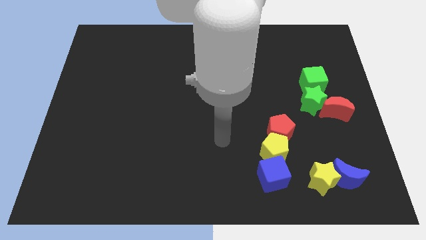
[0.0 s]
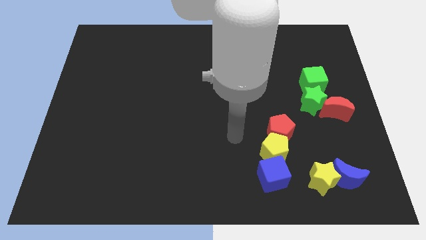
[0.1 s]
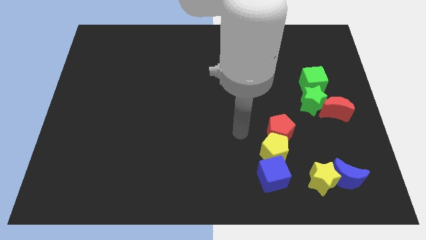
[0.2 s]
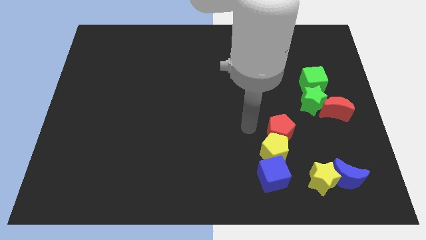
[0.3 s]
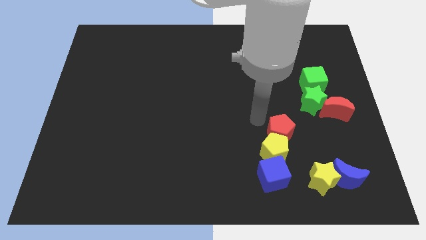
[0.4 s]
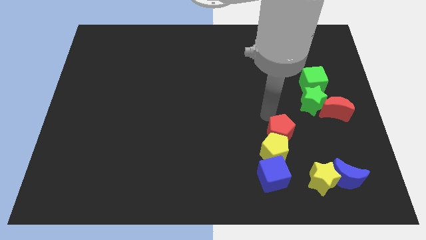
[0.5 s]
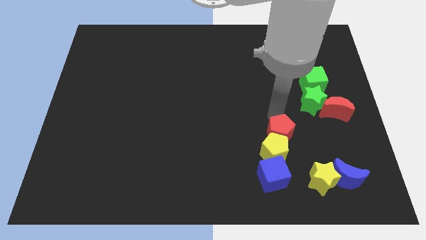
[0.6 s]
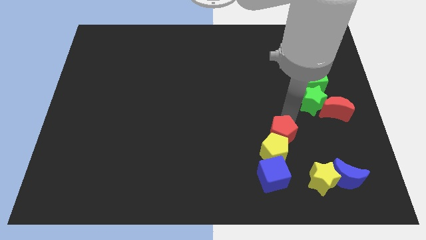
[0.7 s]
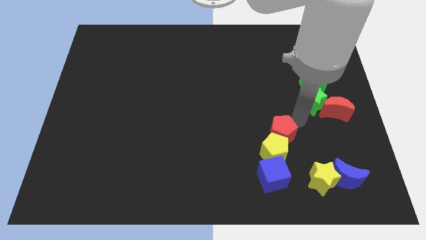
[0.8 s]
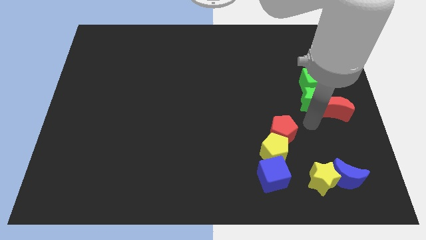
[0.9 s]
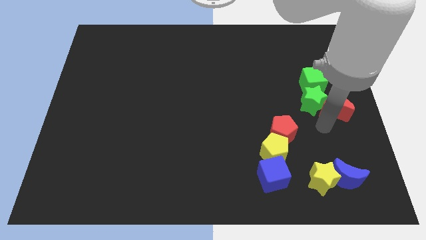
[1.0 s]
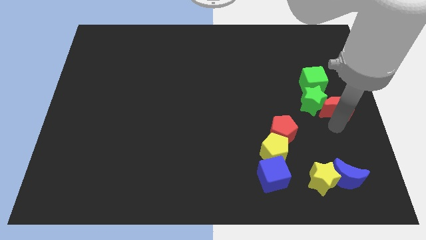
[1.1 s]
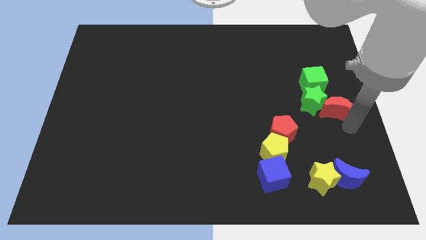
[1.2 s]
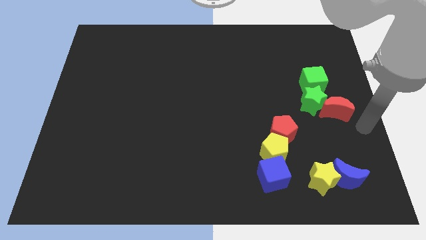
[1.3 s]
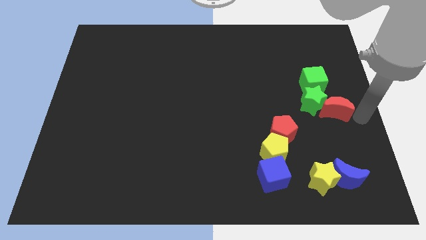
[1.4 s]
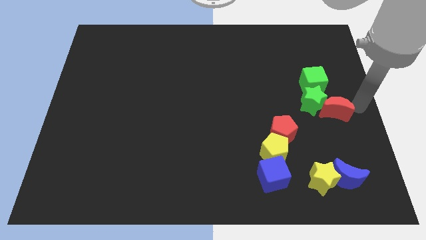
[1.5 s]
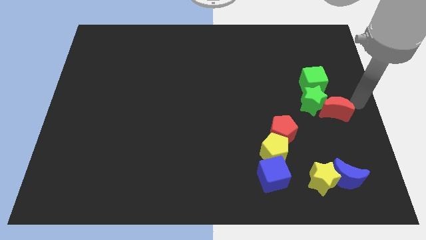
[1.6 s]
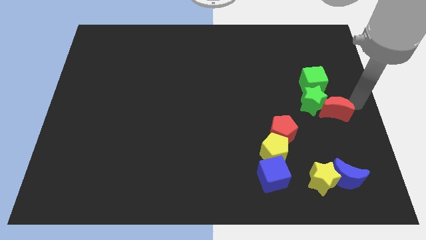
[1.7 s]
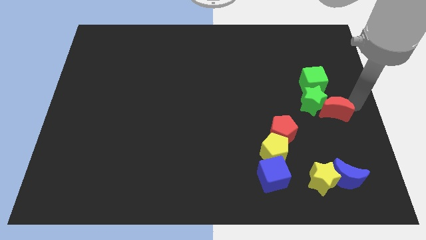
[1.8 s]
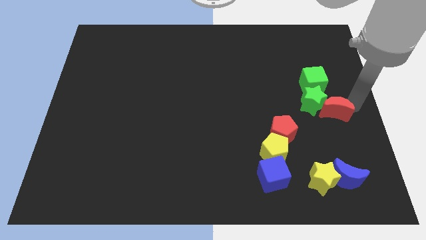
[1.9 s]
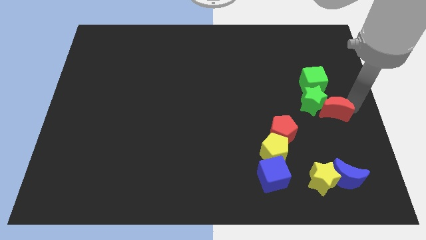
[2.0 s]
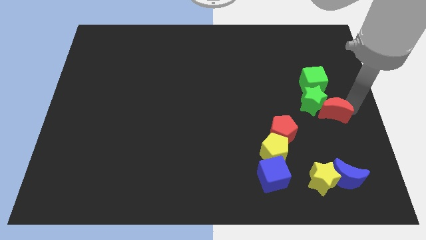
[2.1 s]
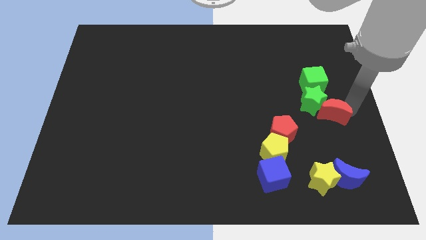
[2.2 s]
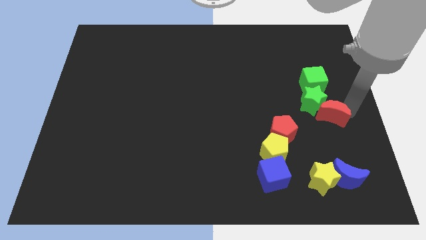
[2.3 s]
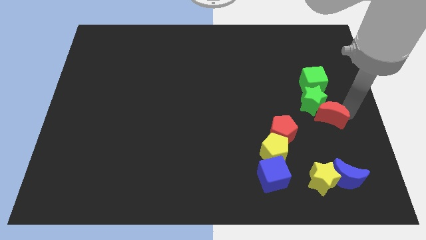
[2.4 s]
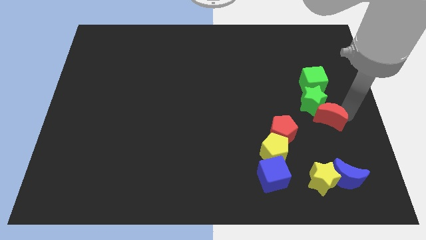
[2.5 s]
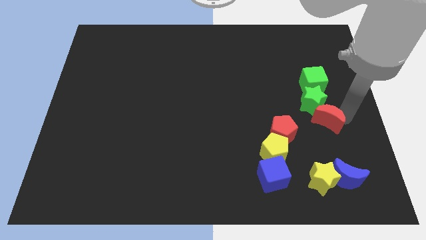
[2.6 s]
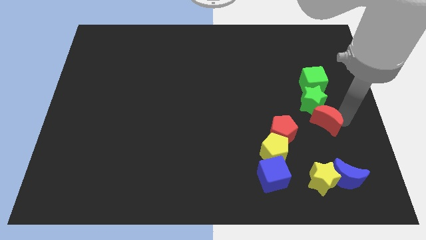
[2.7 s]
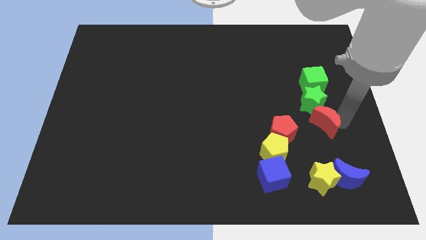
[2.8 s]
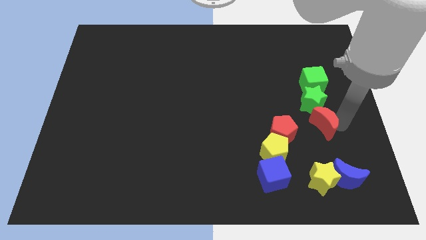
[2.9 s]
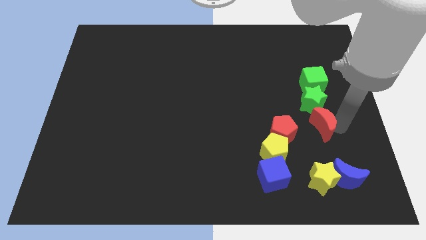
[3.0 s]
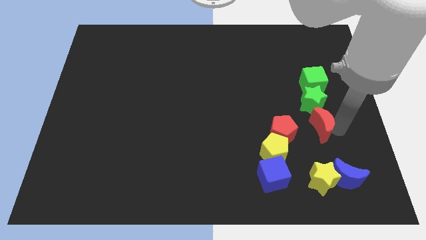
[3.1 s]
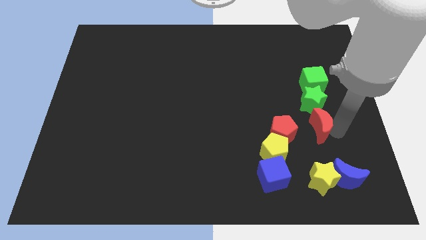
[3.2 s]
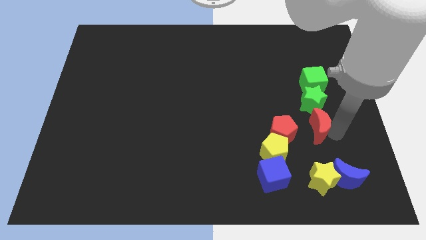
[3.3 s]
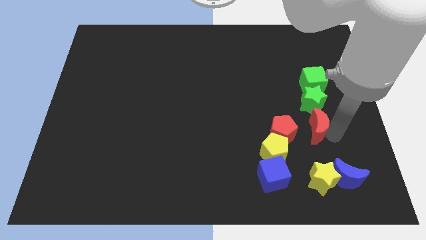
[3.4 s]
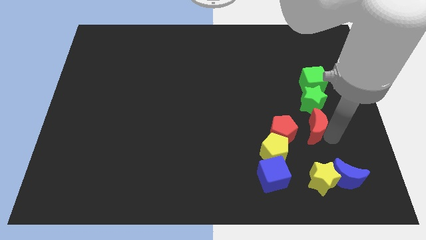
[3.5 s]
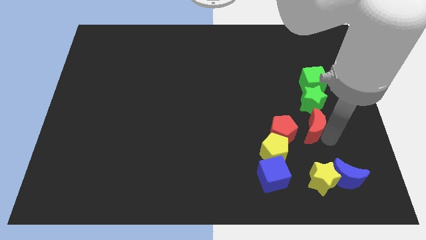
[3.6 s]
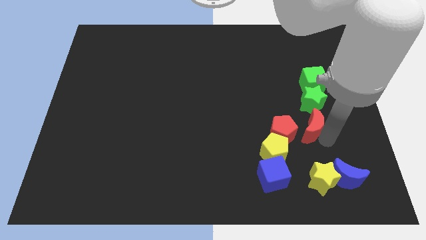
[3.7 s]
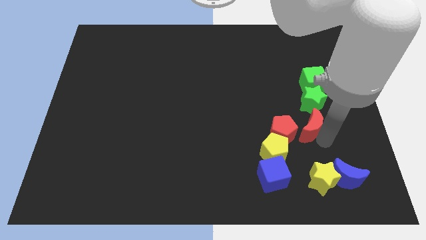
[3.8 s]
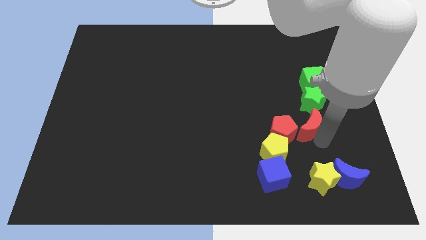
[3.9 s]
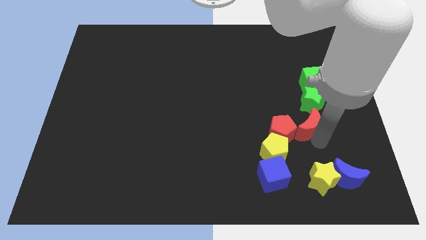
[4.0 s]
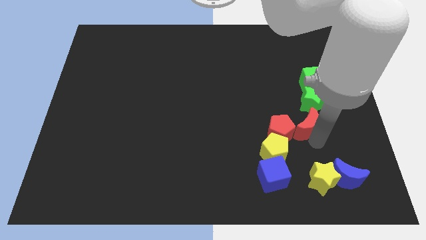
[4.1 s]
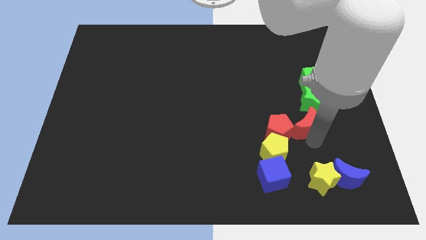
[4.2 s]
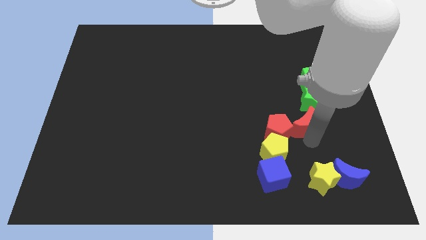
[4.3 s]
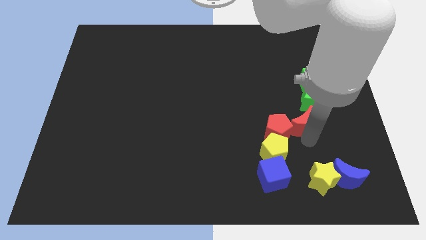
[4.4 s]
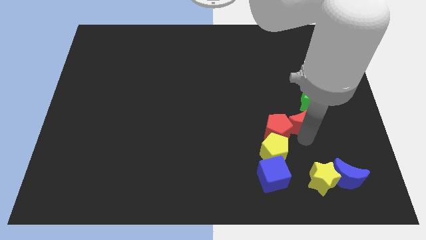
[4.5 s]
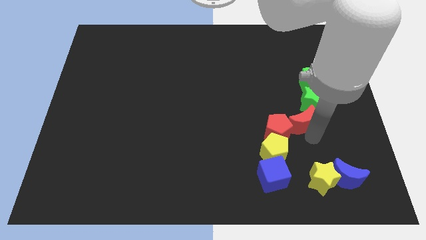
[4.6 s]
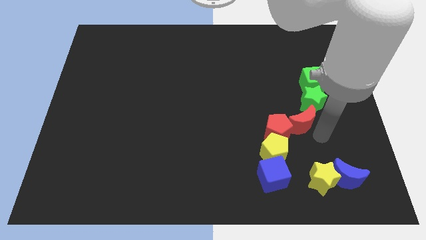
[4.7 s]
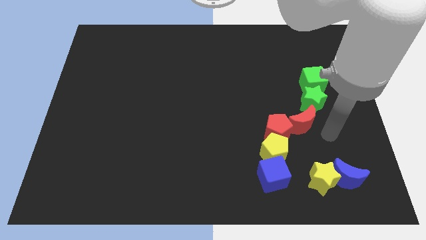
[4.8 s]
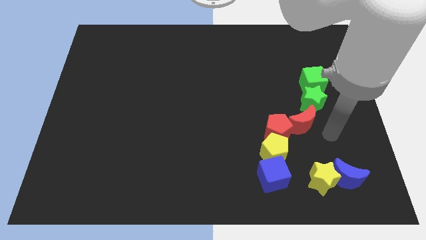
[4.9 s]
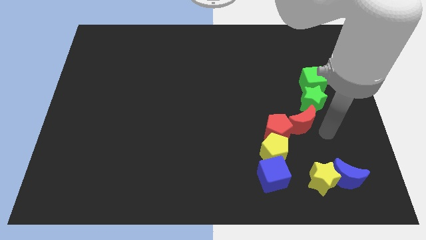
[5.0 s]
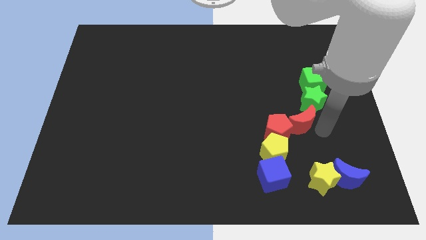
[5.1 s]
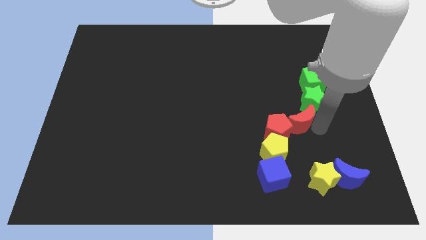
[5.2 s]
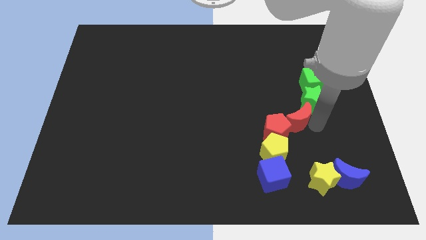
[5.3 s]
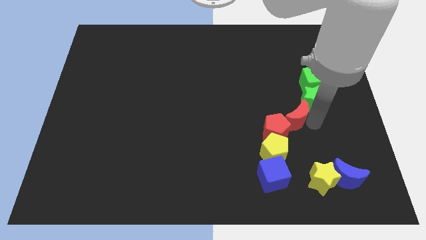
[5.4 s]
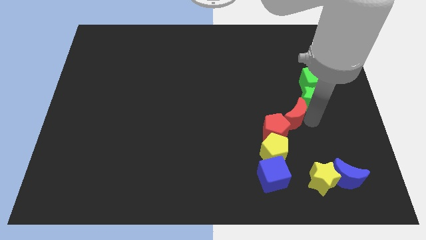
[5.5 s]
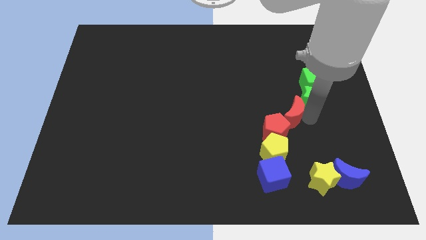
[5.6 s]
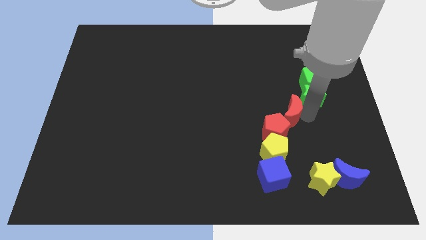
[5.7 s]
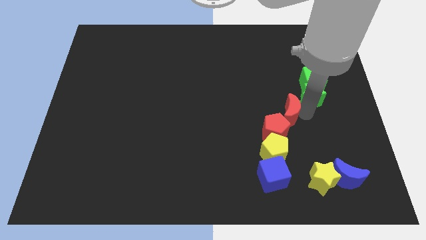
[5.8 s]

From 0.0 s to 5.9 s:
put the red moon to the top side of the yellow pentagon
